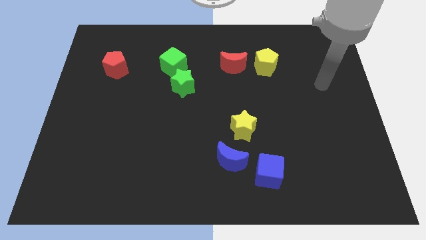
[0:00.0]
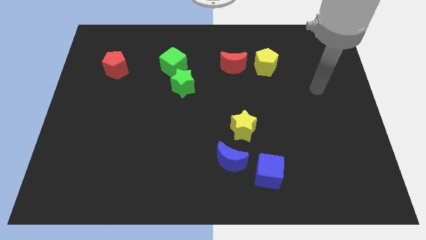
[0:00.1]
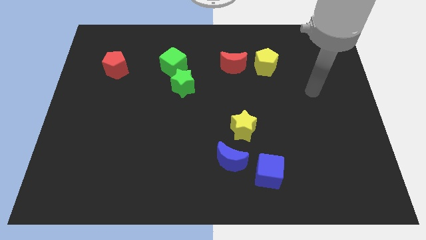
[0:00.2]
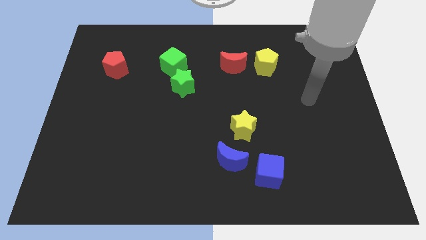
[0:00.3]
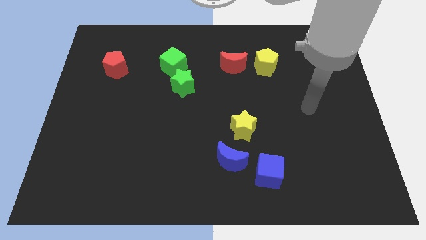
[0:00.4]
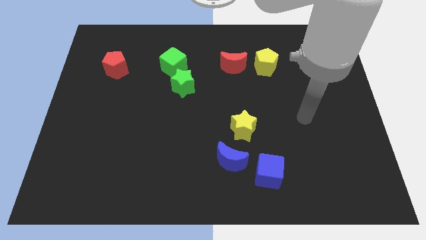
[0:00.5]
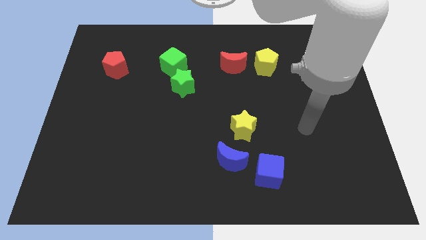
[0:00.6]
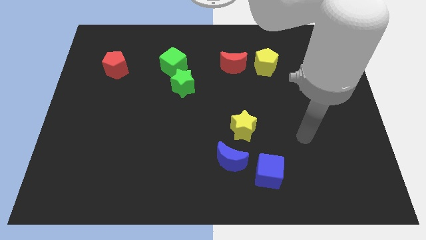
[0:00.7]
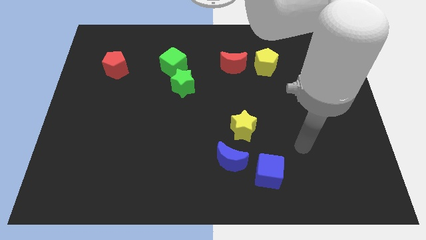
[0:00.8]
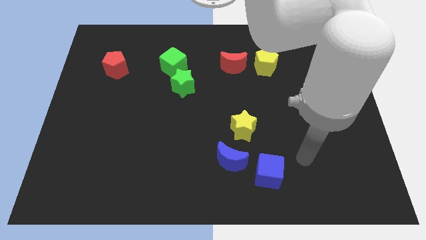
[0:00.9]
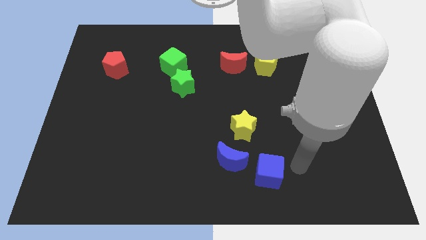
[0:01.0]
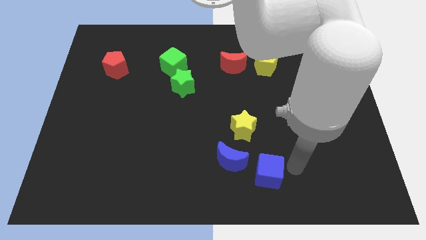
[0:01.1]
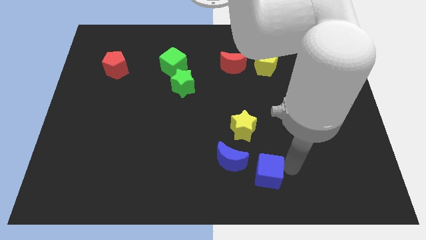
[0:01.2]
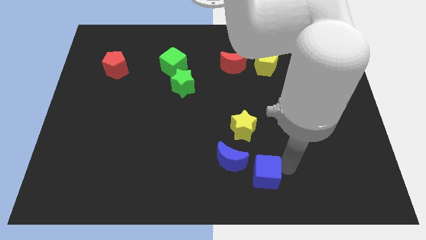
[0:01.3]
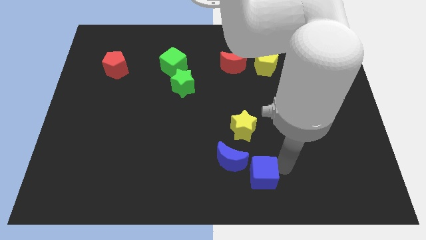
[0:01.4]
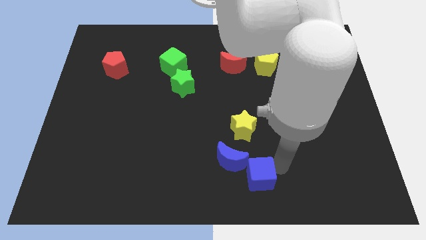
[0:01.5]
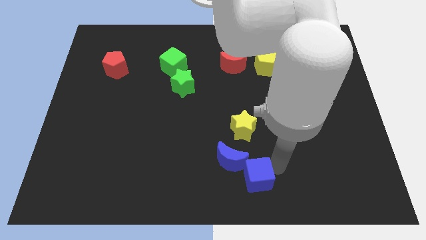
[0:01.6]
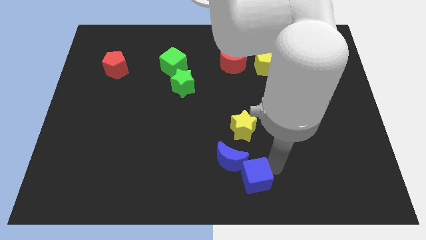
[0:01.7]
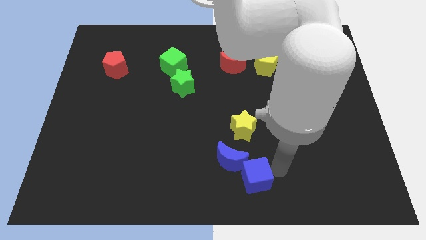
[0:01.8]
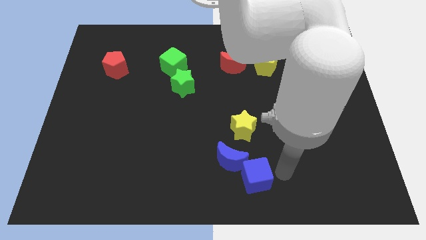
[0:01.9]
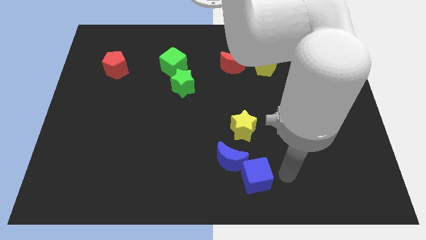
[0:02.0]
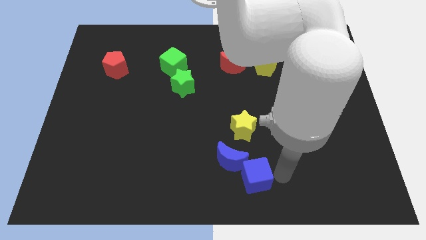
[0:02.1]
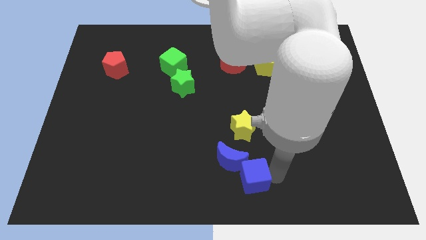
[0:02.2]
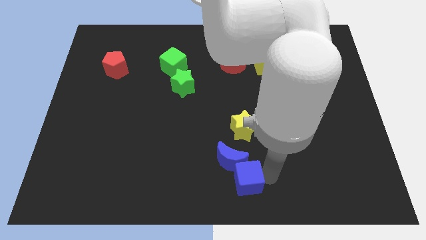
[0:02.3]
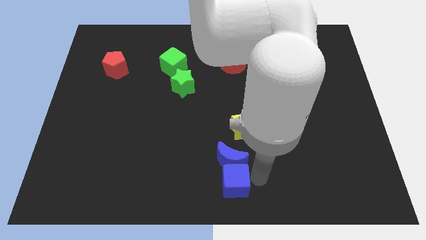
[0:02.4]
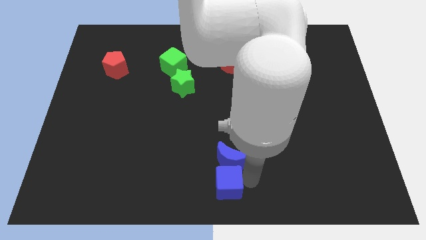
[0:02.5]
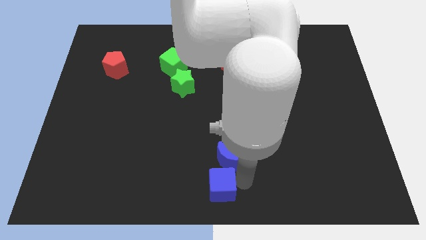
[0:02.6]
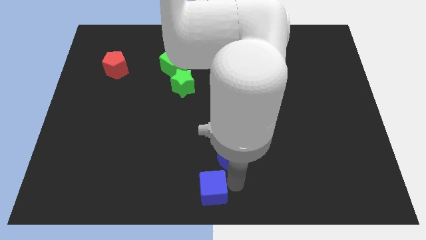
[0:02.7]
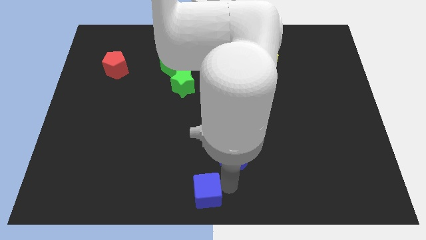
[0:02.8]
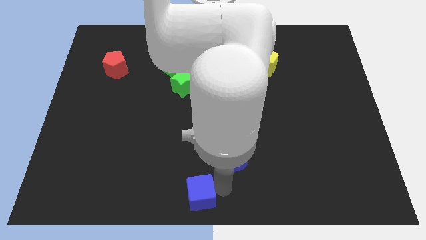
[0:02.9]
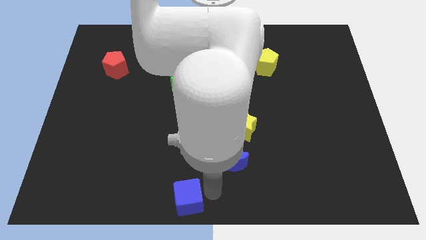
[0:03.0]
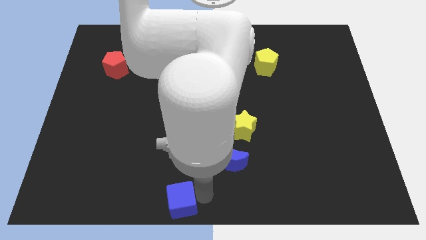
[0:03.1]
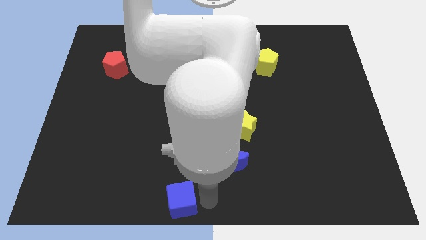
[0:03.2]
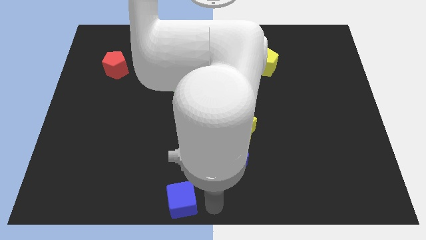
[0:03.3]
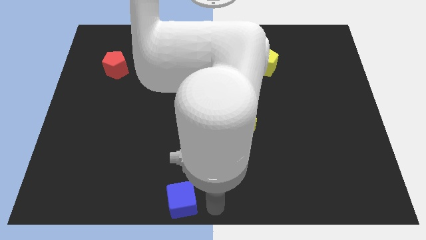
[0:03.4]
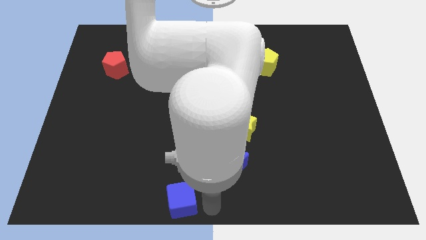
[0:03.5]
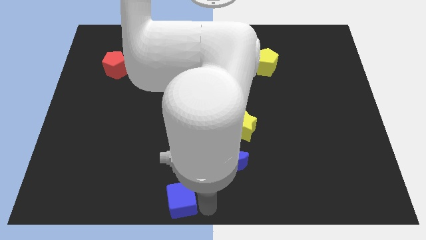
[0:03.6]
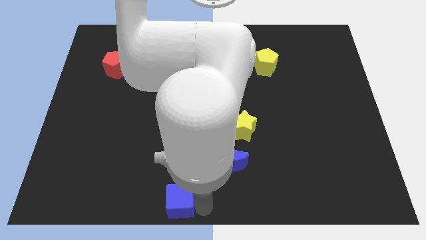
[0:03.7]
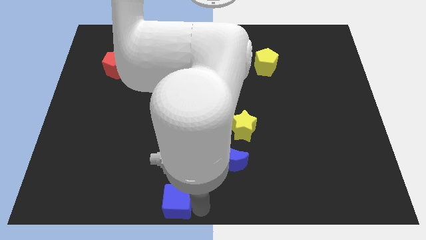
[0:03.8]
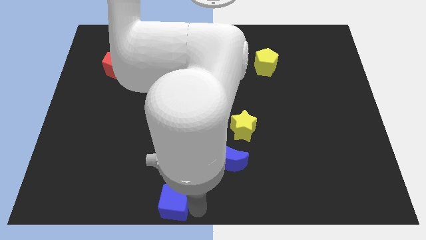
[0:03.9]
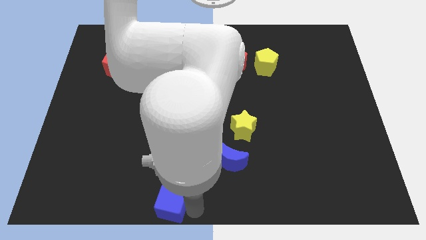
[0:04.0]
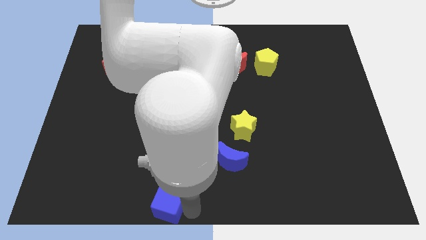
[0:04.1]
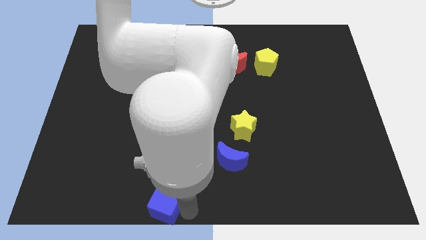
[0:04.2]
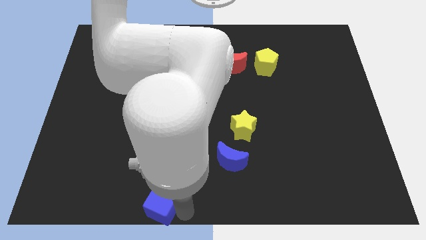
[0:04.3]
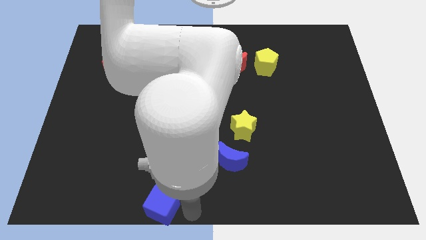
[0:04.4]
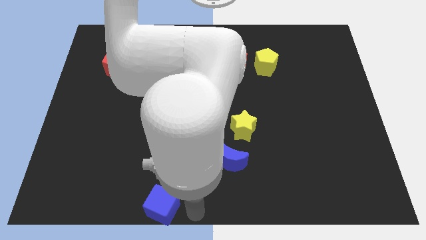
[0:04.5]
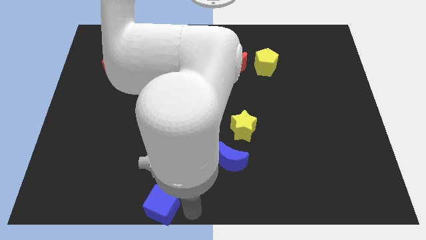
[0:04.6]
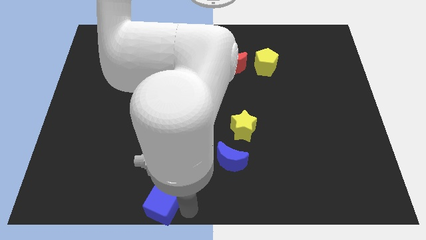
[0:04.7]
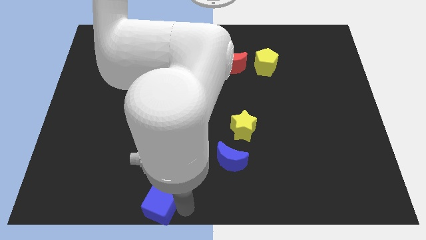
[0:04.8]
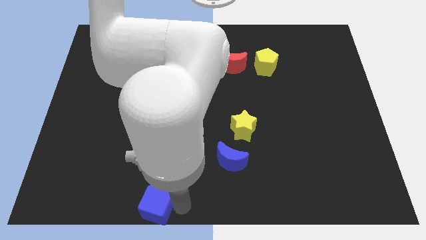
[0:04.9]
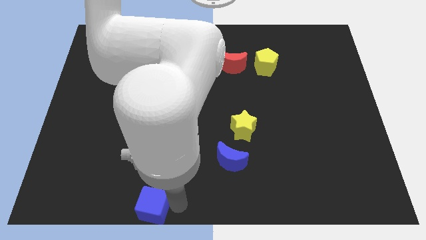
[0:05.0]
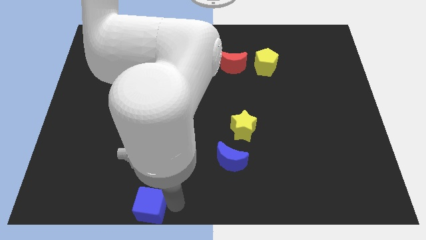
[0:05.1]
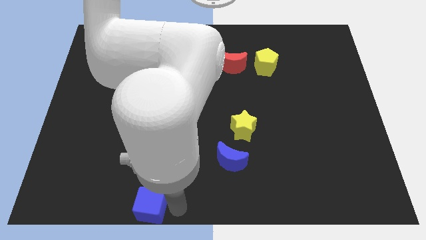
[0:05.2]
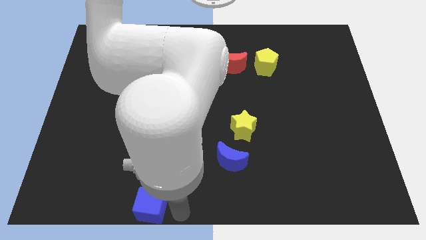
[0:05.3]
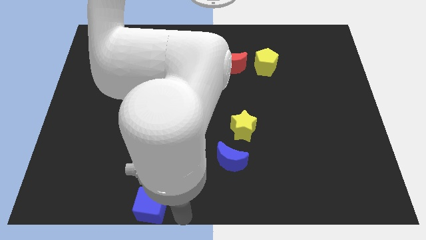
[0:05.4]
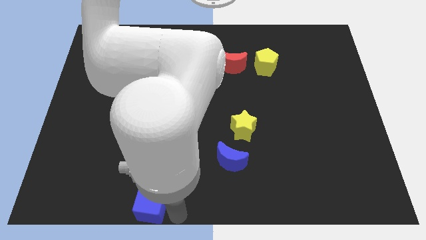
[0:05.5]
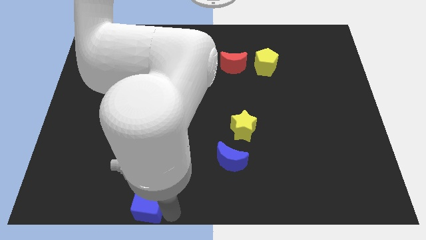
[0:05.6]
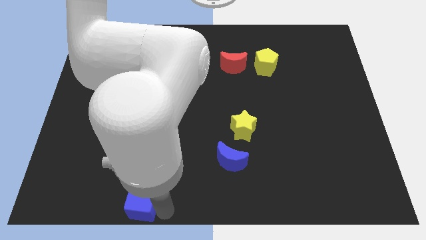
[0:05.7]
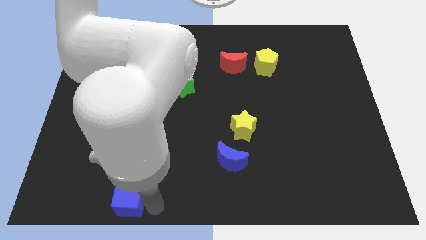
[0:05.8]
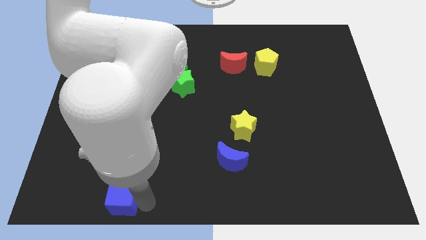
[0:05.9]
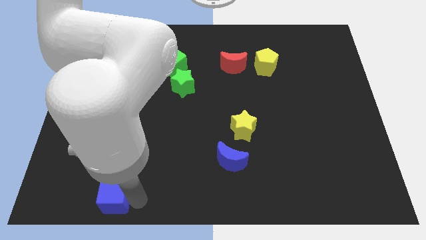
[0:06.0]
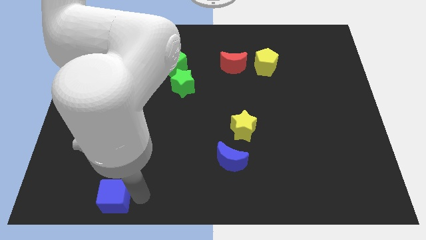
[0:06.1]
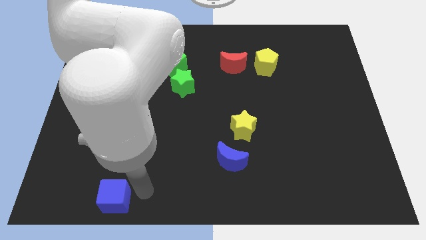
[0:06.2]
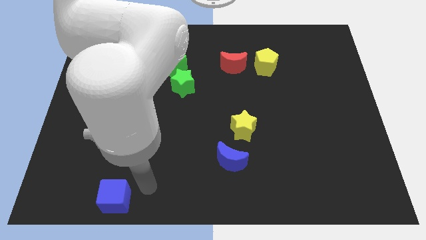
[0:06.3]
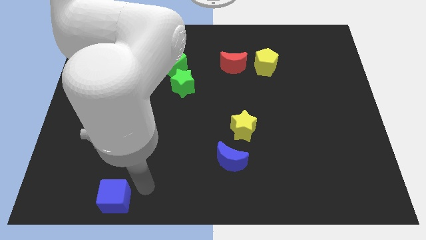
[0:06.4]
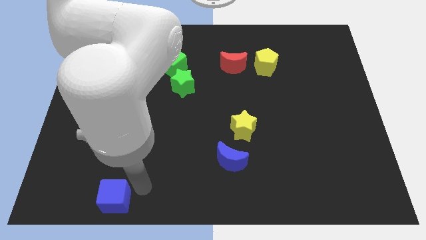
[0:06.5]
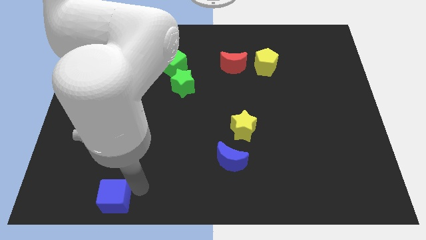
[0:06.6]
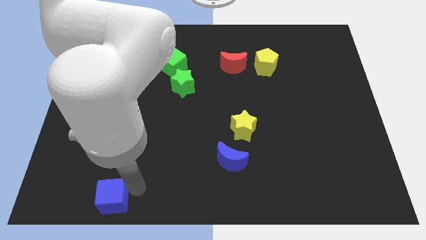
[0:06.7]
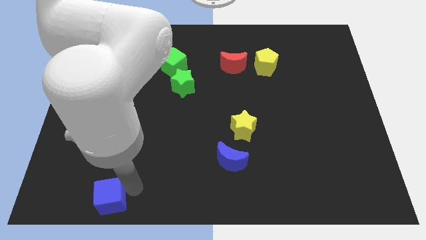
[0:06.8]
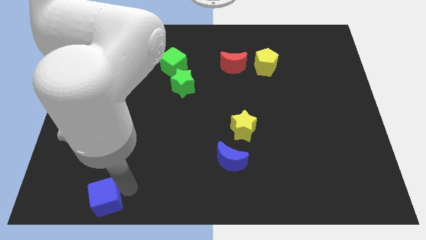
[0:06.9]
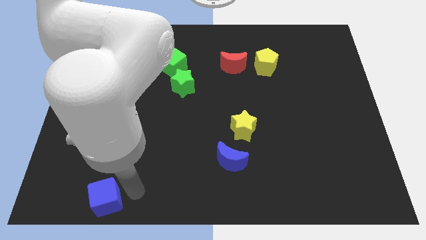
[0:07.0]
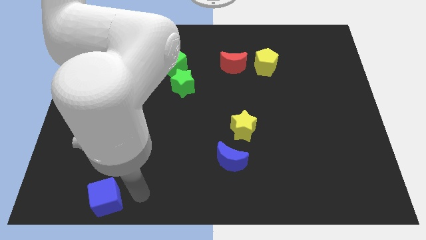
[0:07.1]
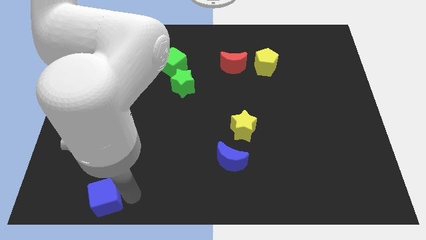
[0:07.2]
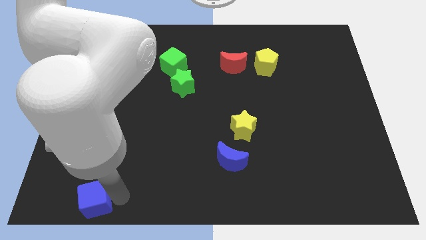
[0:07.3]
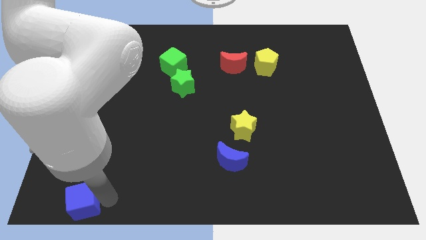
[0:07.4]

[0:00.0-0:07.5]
move the blue cube to the bottom left corner

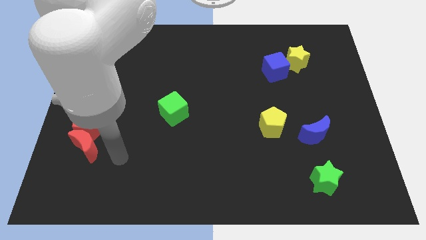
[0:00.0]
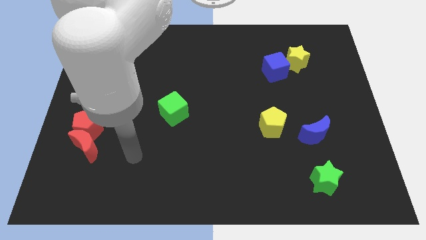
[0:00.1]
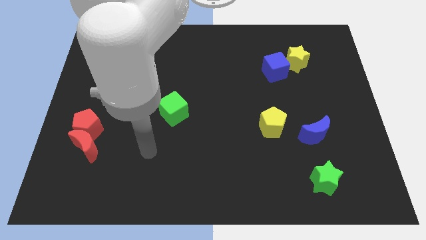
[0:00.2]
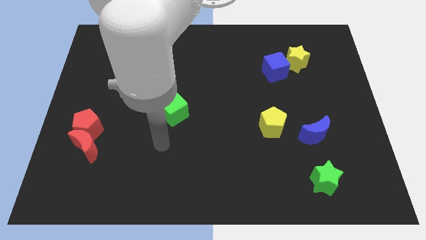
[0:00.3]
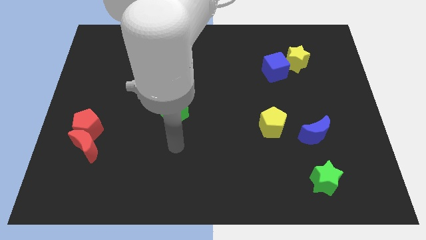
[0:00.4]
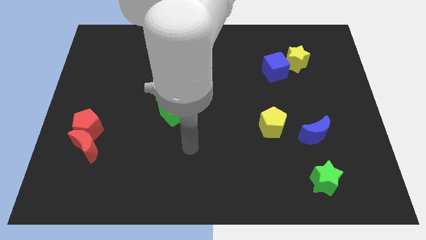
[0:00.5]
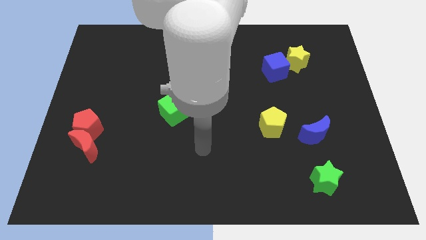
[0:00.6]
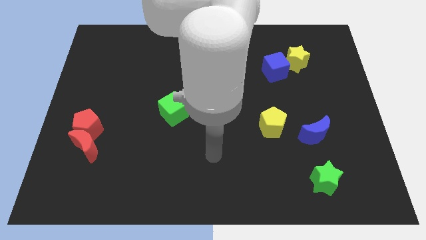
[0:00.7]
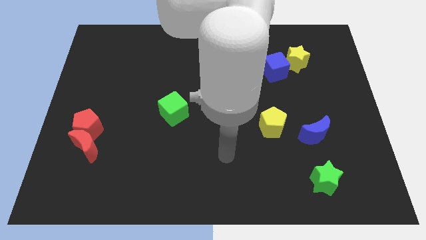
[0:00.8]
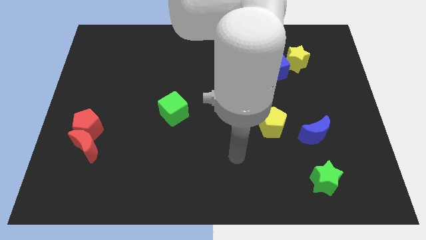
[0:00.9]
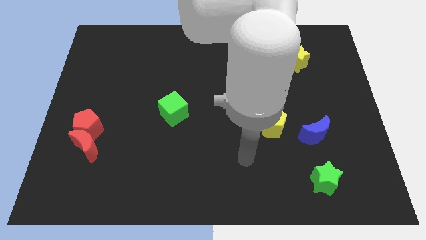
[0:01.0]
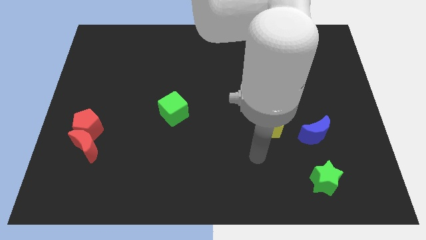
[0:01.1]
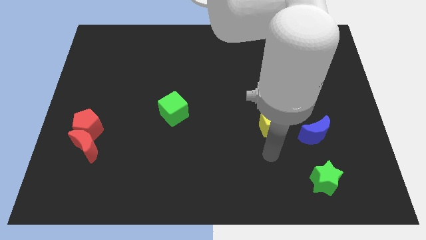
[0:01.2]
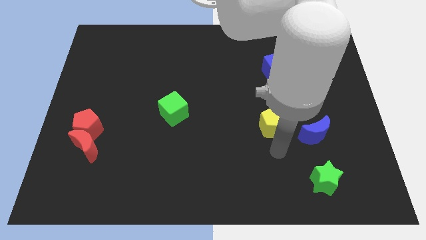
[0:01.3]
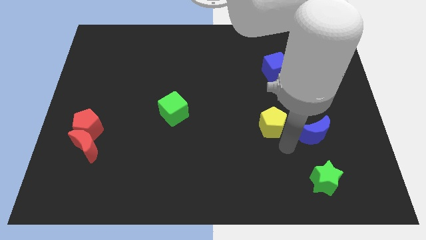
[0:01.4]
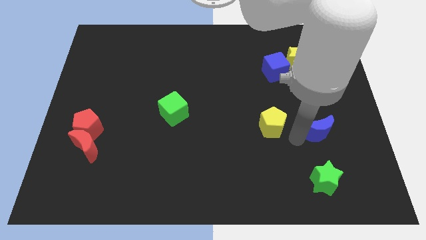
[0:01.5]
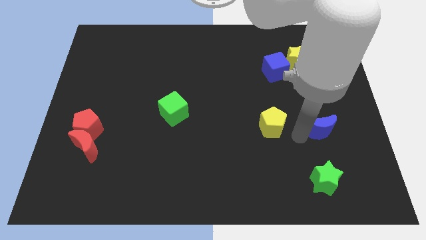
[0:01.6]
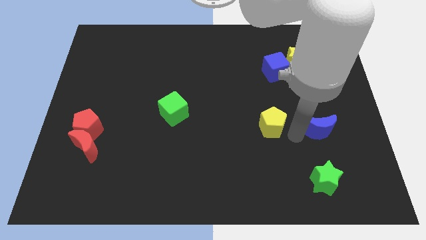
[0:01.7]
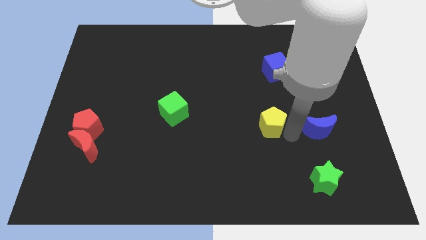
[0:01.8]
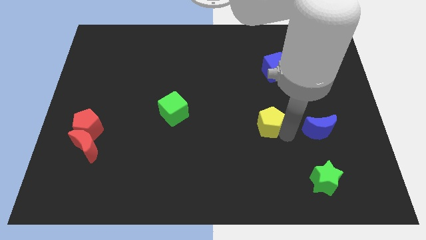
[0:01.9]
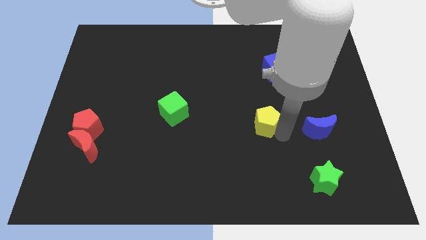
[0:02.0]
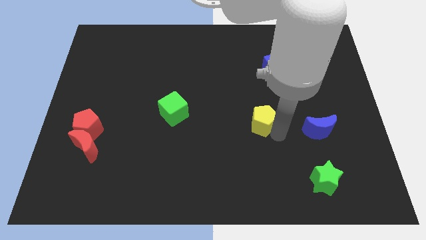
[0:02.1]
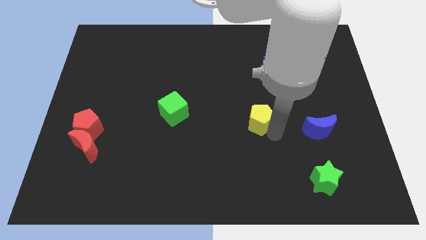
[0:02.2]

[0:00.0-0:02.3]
put the yellow pentagon to the middle of the board
